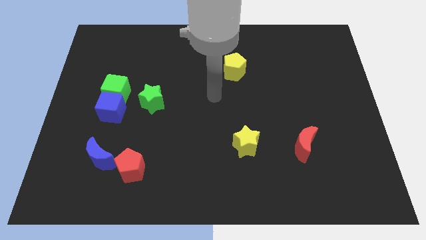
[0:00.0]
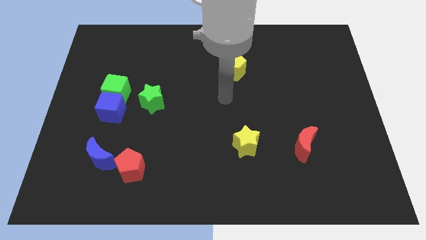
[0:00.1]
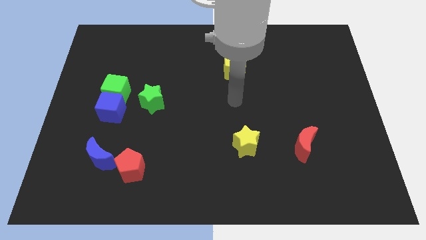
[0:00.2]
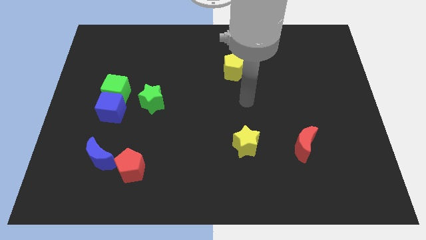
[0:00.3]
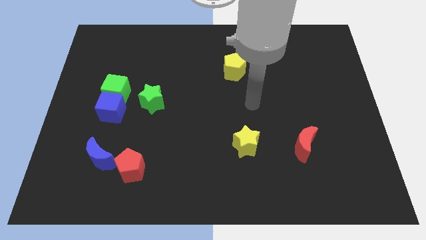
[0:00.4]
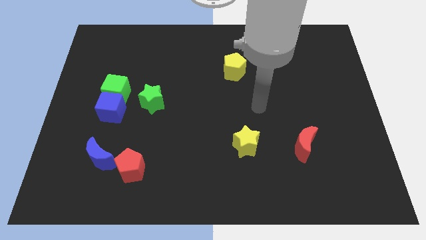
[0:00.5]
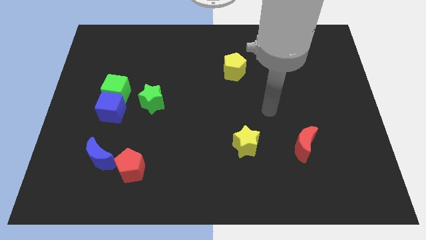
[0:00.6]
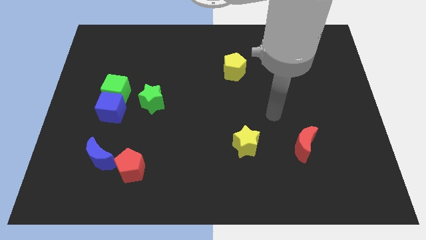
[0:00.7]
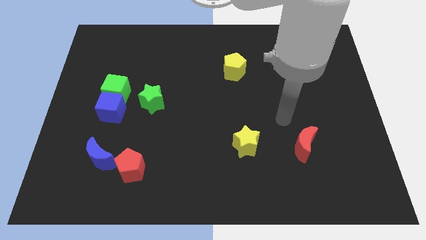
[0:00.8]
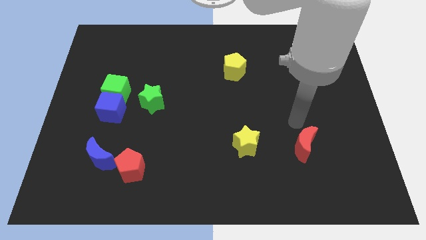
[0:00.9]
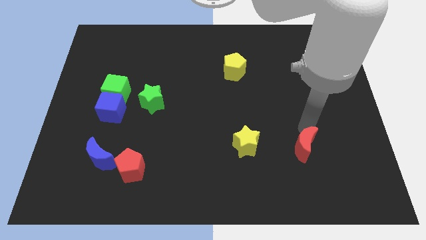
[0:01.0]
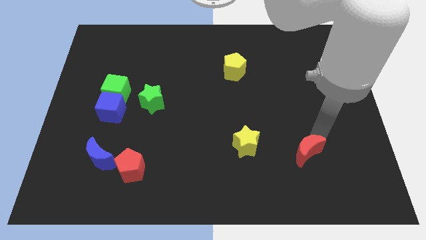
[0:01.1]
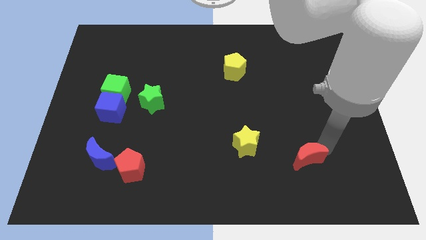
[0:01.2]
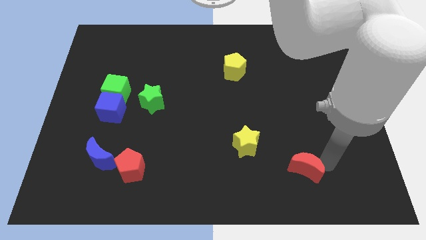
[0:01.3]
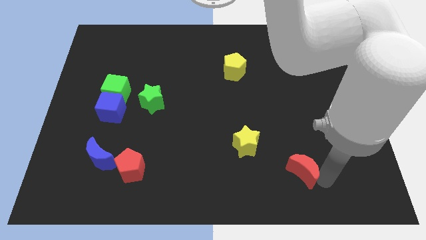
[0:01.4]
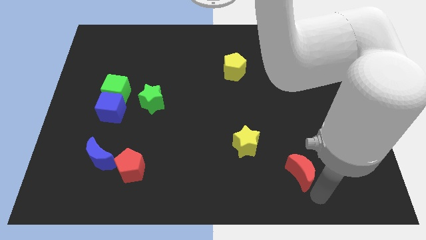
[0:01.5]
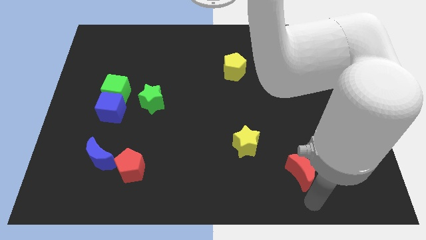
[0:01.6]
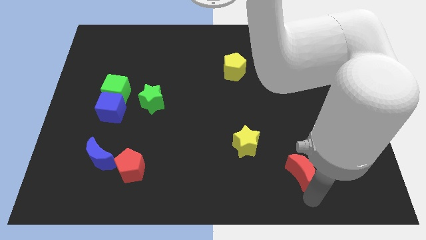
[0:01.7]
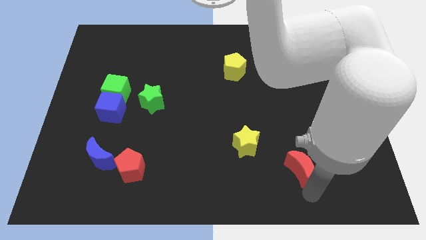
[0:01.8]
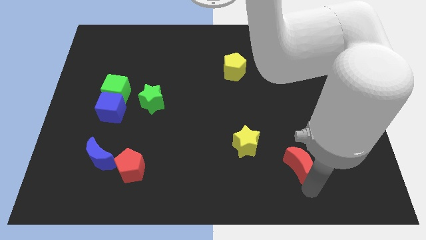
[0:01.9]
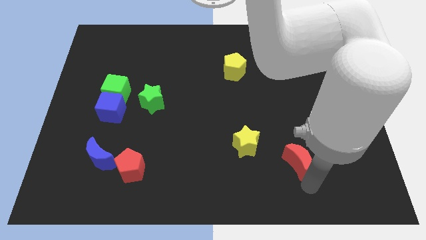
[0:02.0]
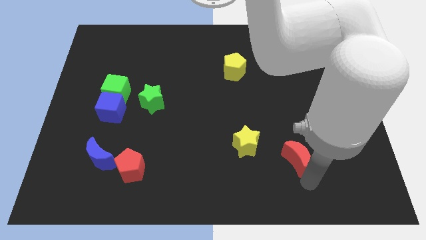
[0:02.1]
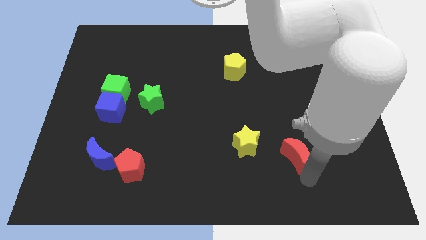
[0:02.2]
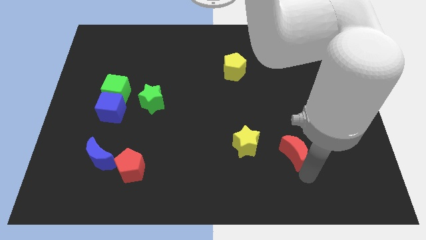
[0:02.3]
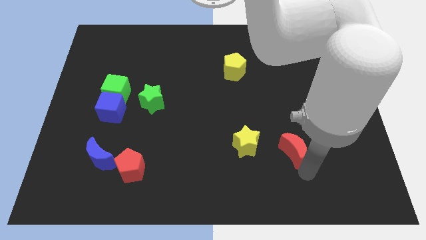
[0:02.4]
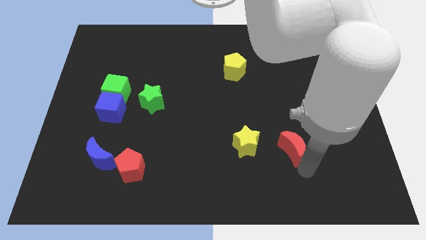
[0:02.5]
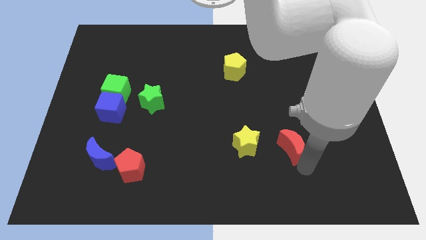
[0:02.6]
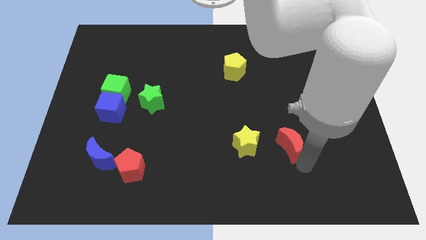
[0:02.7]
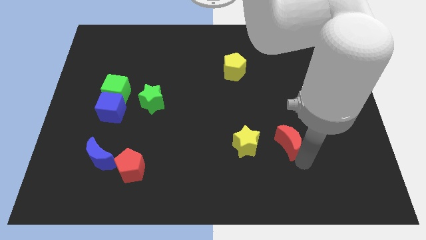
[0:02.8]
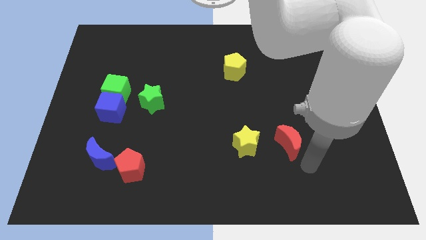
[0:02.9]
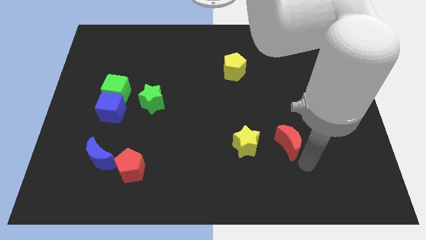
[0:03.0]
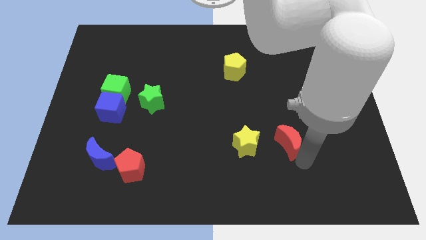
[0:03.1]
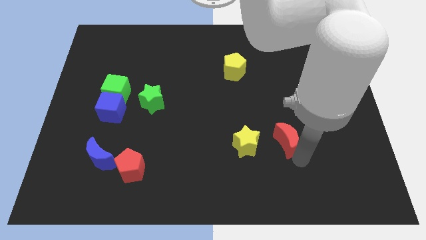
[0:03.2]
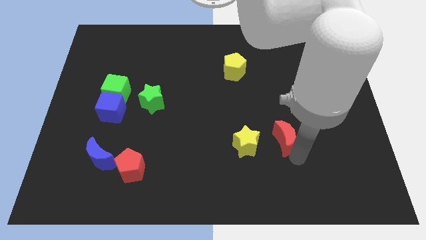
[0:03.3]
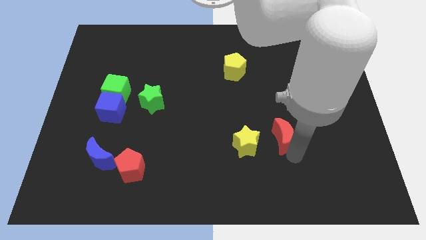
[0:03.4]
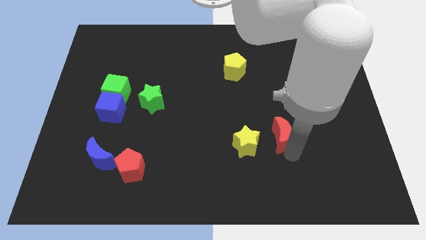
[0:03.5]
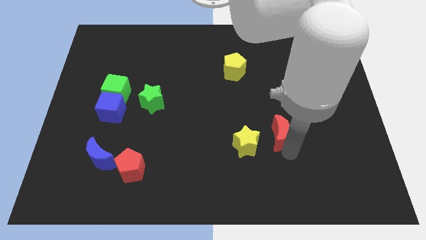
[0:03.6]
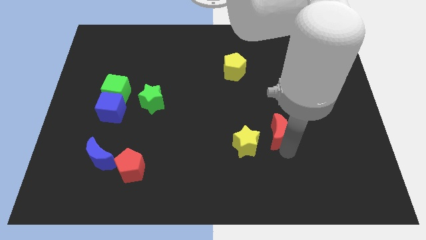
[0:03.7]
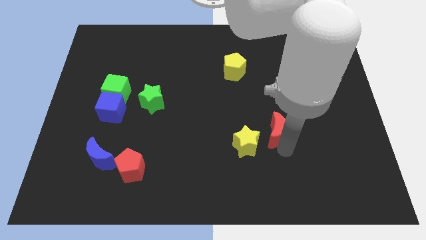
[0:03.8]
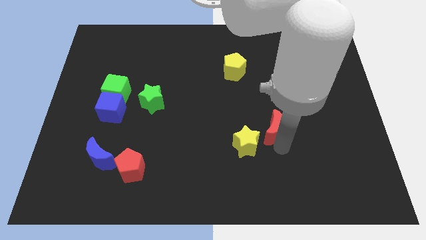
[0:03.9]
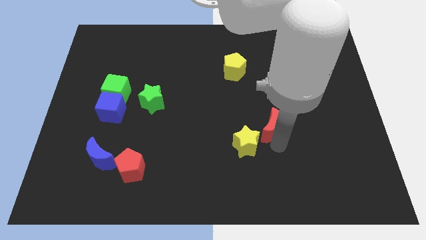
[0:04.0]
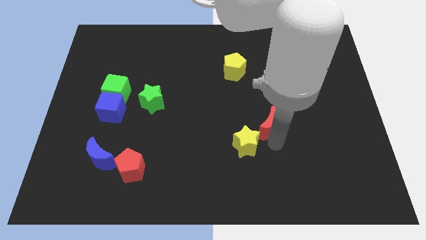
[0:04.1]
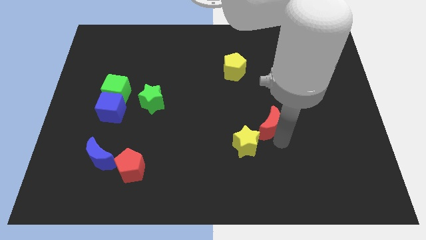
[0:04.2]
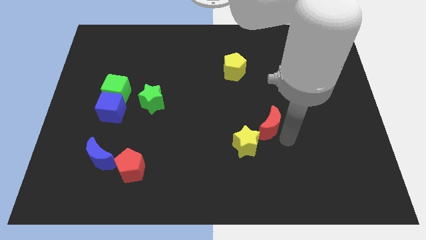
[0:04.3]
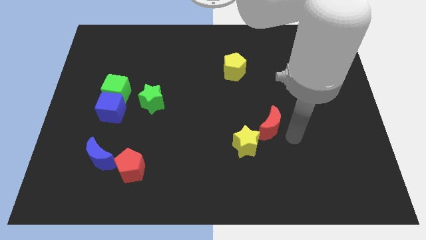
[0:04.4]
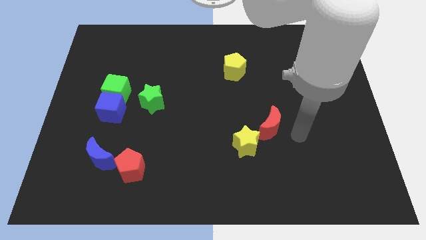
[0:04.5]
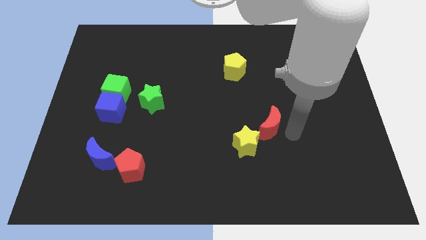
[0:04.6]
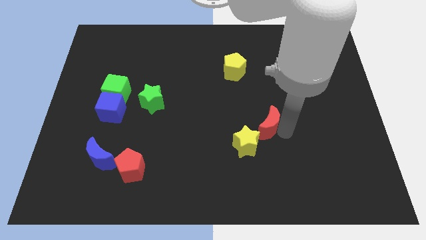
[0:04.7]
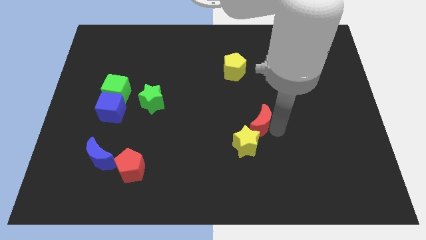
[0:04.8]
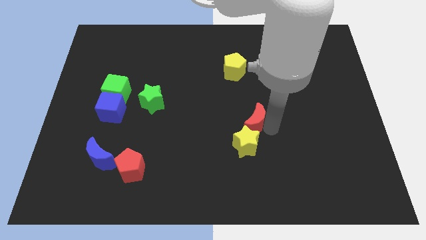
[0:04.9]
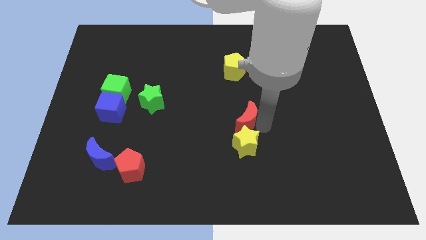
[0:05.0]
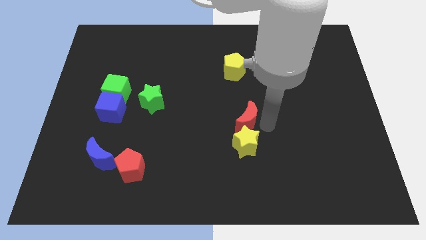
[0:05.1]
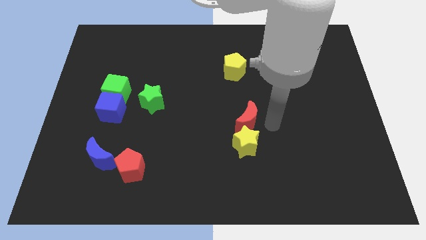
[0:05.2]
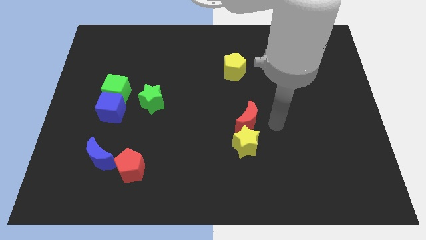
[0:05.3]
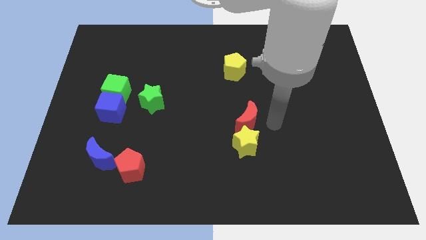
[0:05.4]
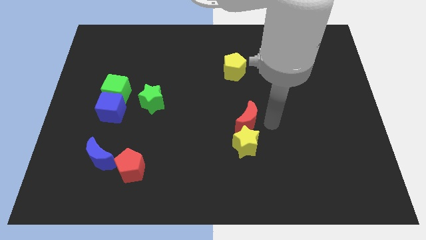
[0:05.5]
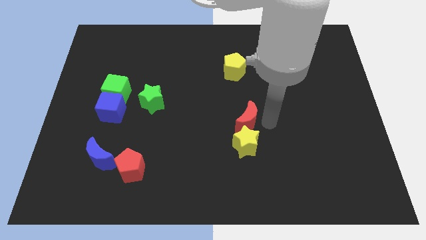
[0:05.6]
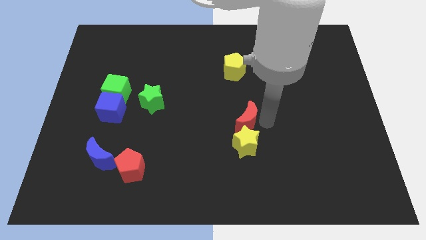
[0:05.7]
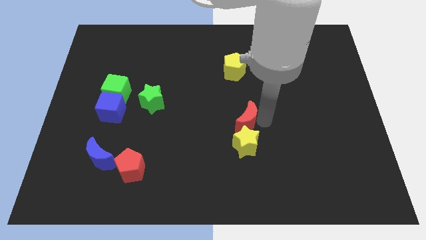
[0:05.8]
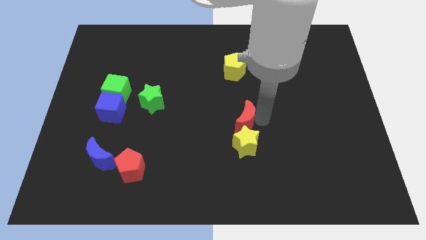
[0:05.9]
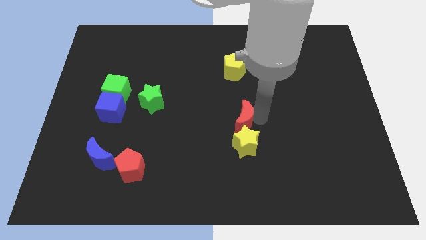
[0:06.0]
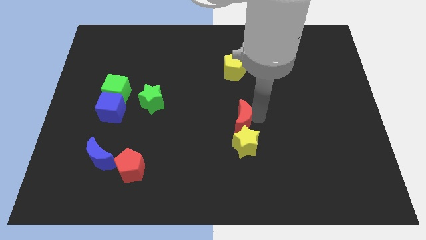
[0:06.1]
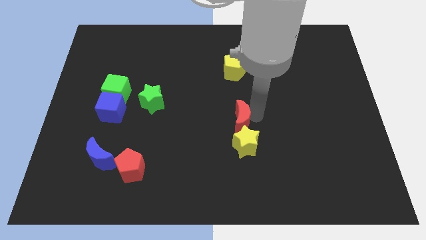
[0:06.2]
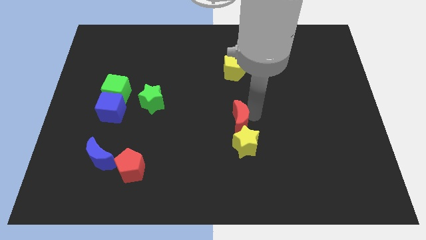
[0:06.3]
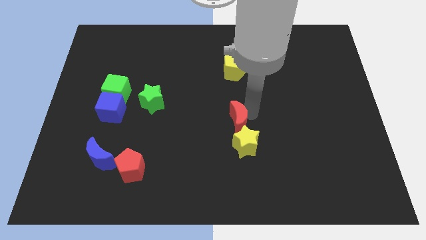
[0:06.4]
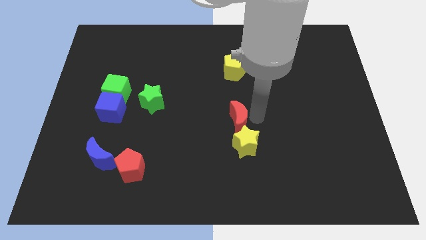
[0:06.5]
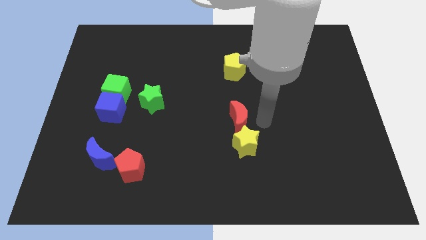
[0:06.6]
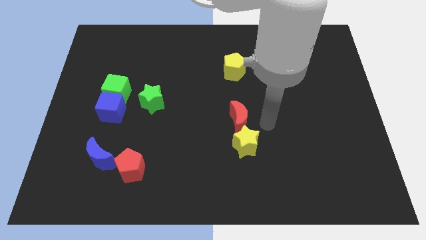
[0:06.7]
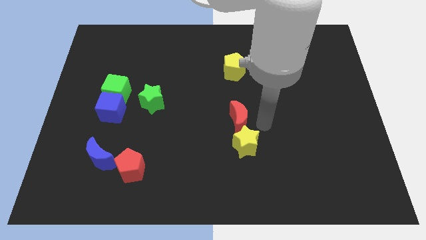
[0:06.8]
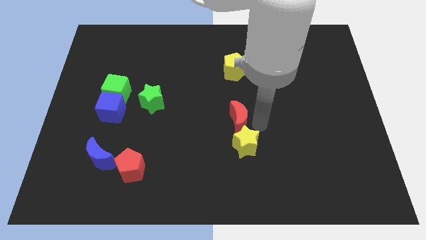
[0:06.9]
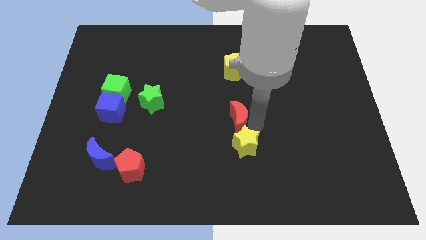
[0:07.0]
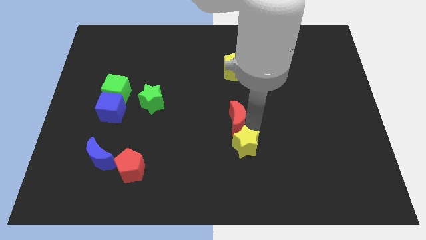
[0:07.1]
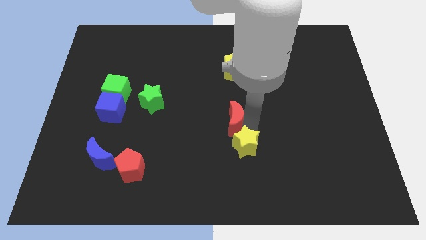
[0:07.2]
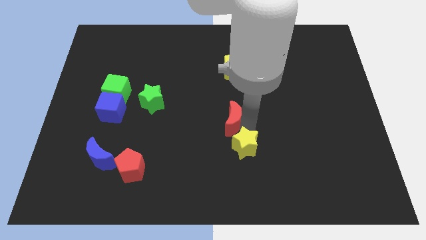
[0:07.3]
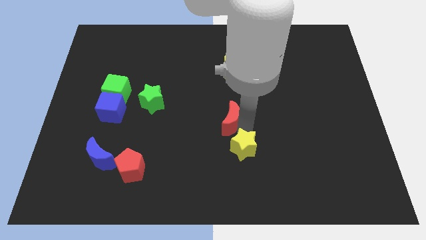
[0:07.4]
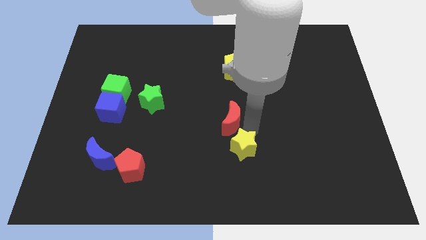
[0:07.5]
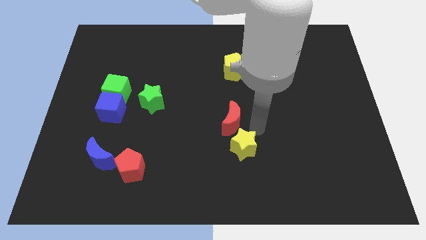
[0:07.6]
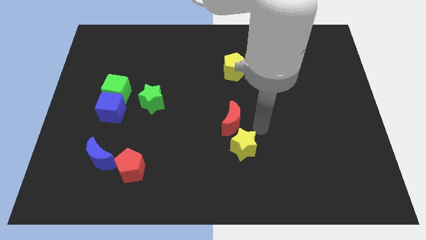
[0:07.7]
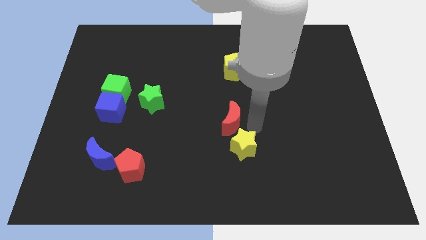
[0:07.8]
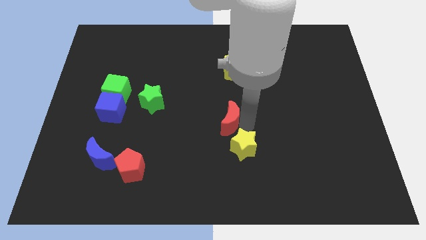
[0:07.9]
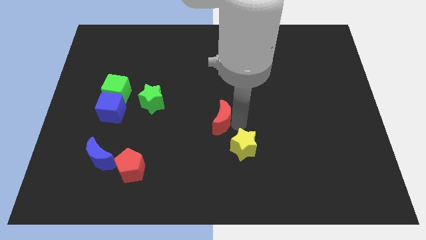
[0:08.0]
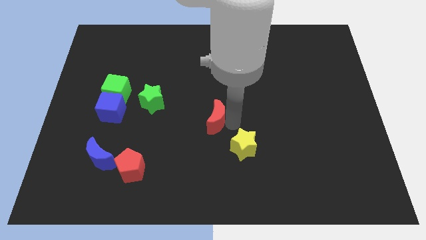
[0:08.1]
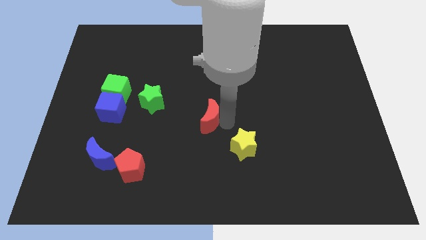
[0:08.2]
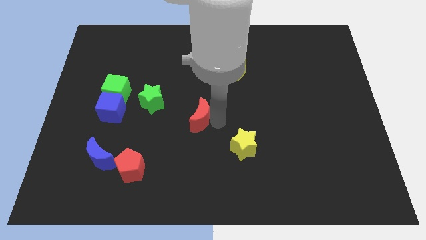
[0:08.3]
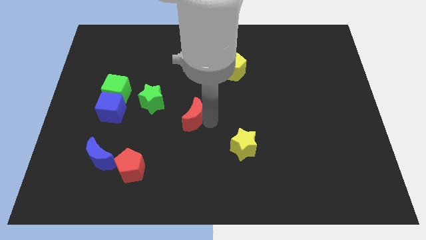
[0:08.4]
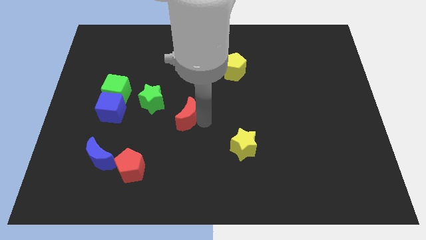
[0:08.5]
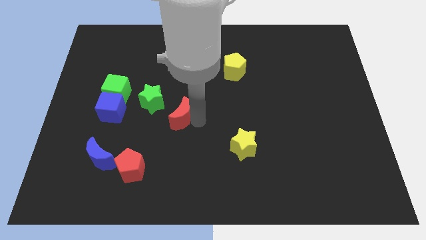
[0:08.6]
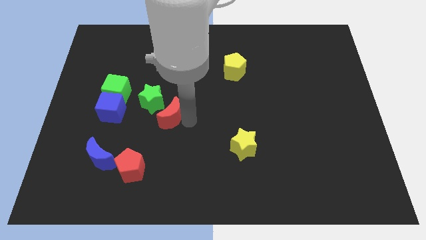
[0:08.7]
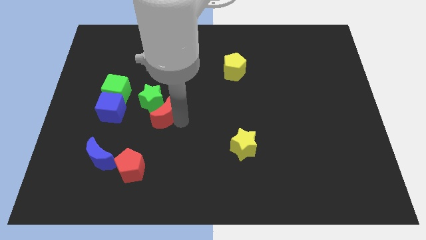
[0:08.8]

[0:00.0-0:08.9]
slide the red moon close to the green star
